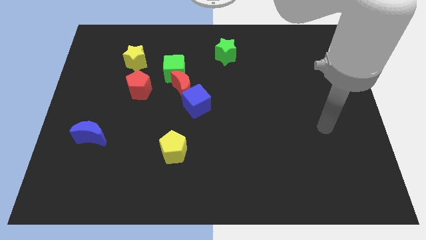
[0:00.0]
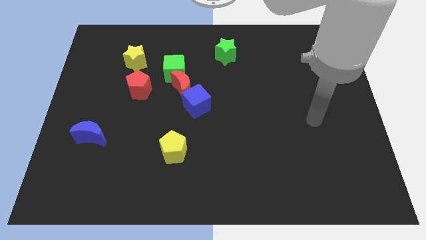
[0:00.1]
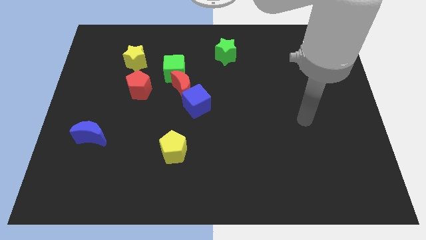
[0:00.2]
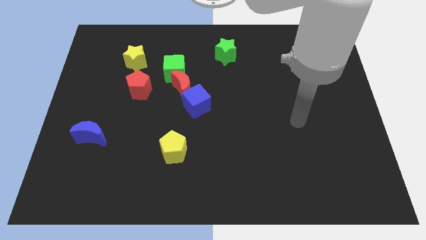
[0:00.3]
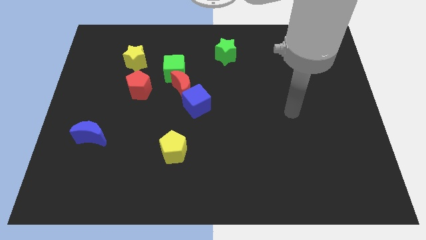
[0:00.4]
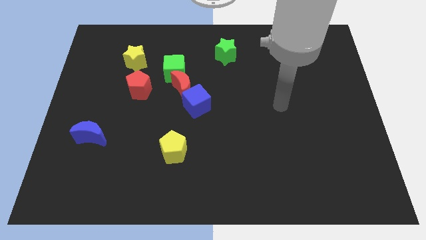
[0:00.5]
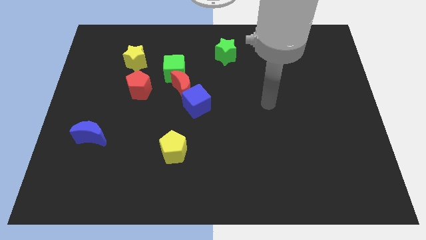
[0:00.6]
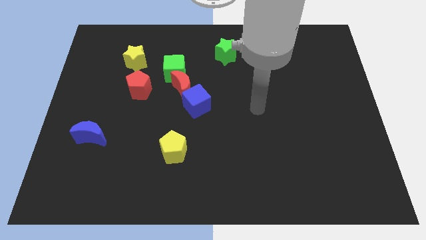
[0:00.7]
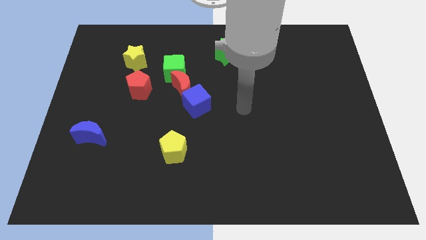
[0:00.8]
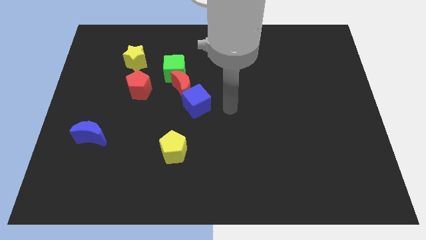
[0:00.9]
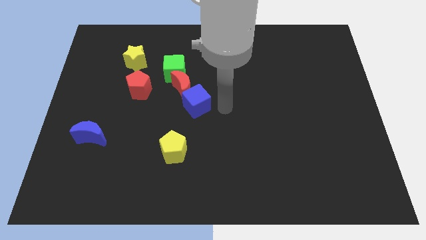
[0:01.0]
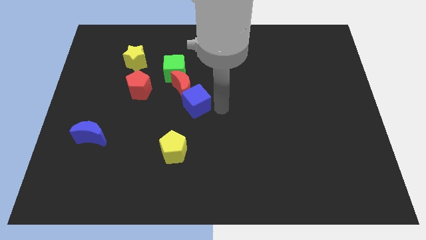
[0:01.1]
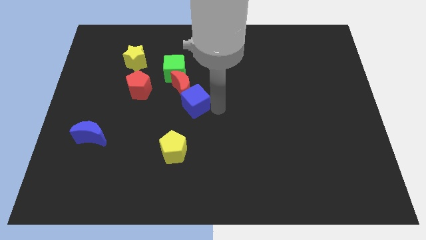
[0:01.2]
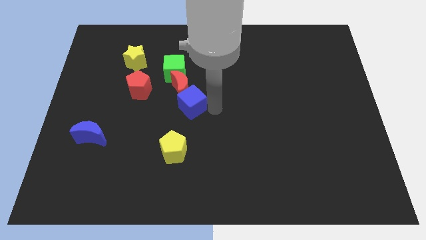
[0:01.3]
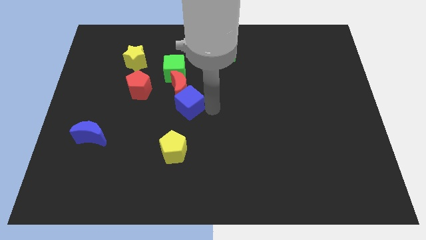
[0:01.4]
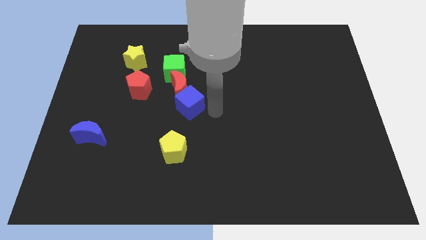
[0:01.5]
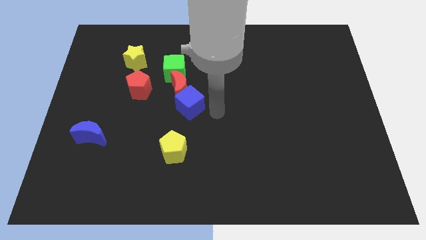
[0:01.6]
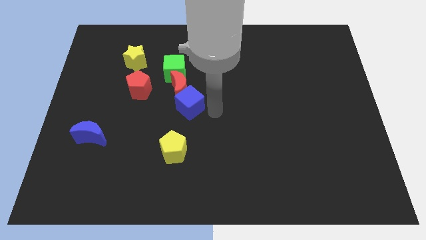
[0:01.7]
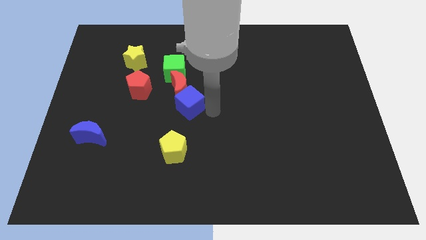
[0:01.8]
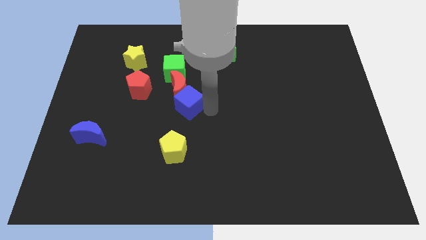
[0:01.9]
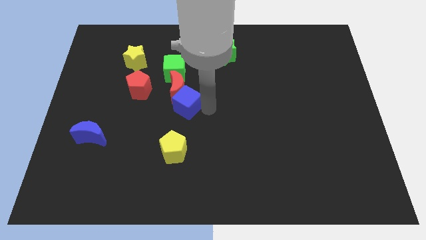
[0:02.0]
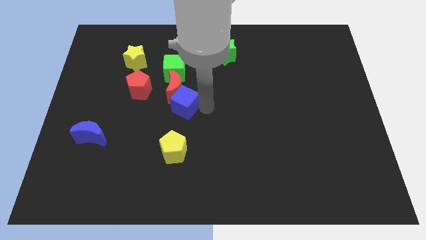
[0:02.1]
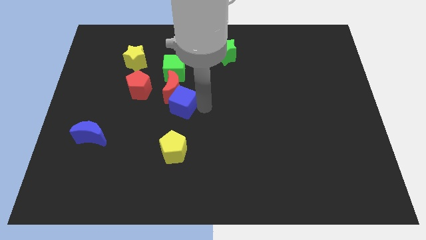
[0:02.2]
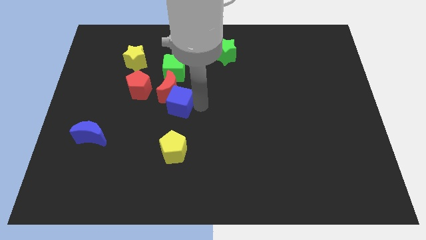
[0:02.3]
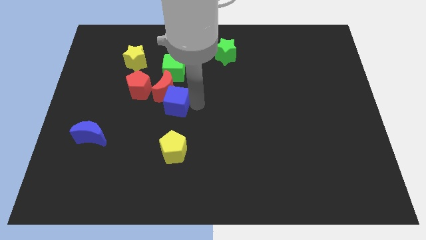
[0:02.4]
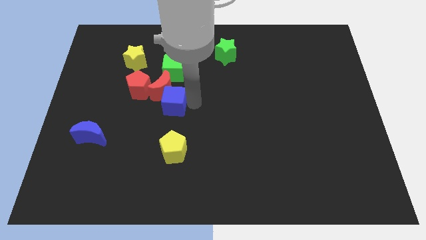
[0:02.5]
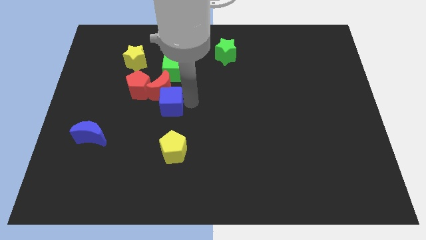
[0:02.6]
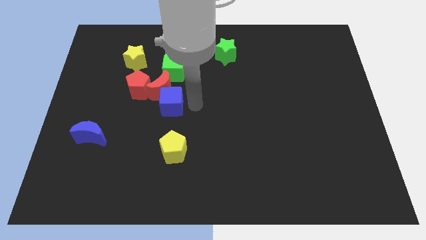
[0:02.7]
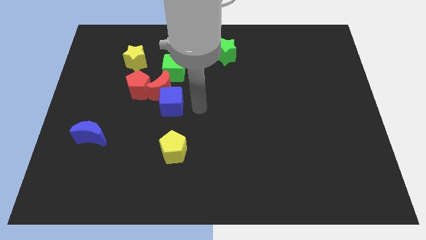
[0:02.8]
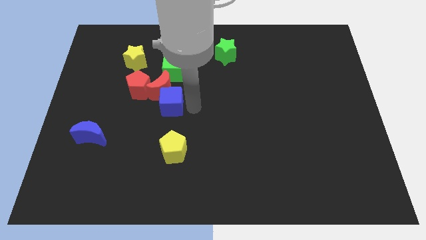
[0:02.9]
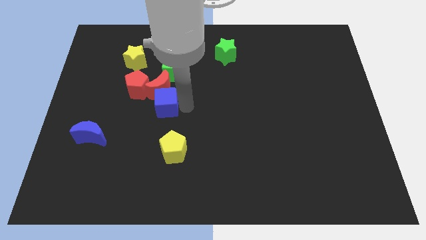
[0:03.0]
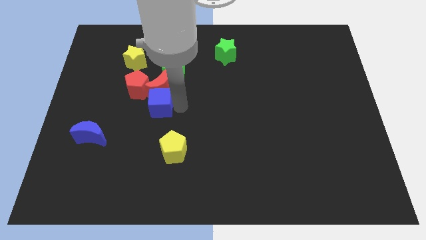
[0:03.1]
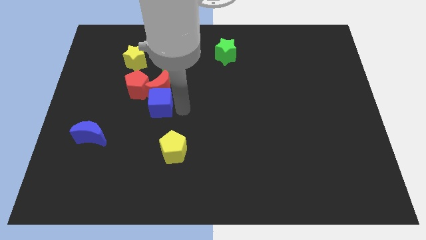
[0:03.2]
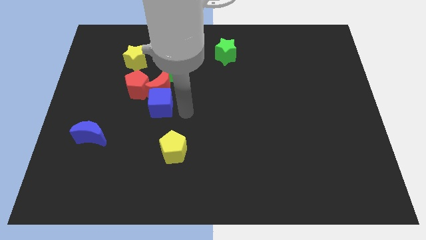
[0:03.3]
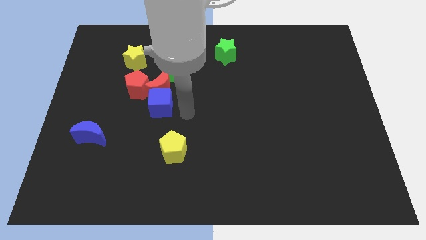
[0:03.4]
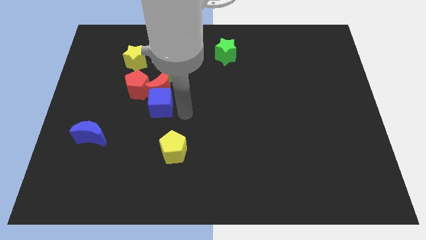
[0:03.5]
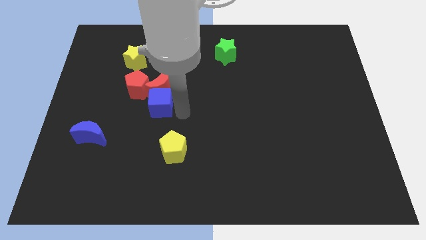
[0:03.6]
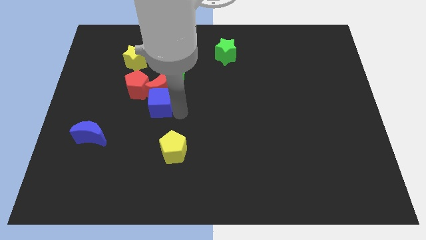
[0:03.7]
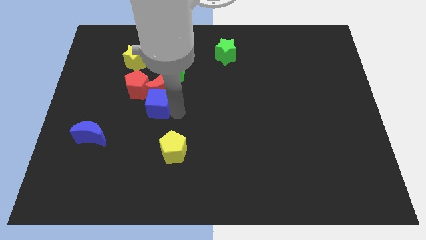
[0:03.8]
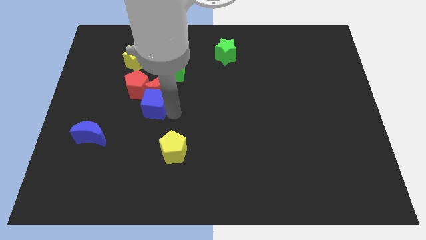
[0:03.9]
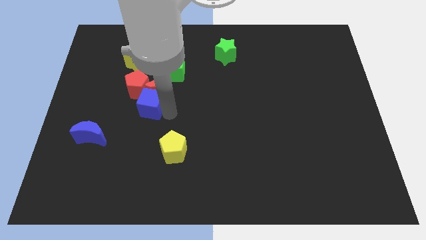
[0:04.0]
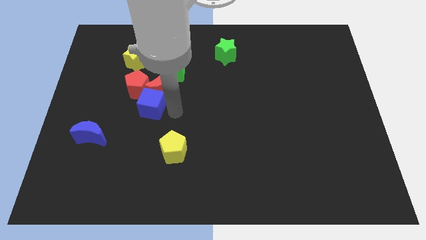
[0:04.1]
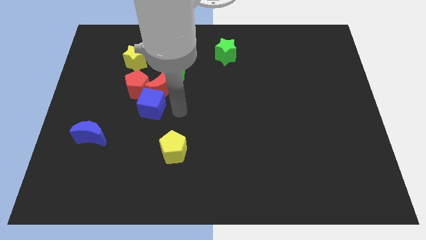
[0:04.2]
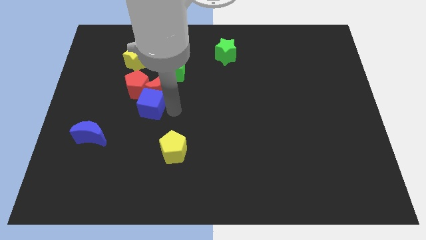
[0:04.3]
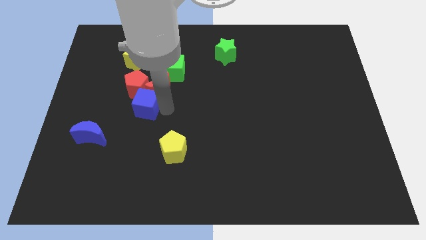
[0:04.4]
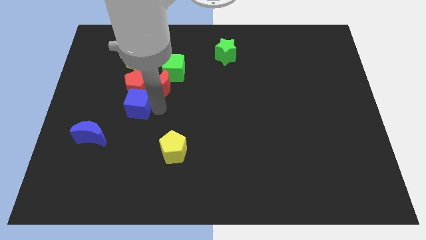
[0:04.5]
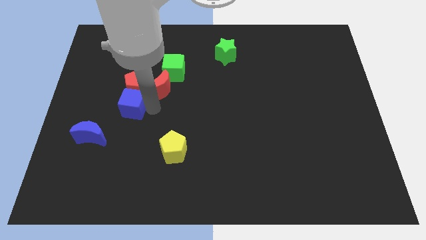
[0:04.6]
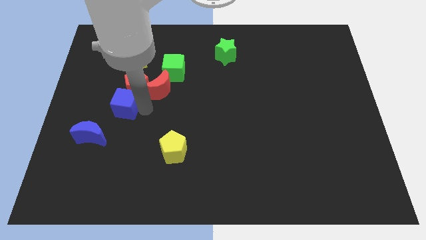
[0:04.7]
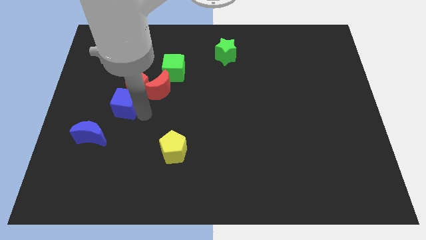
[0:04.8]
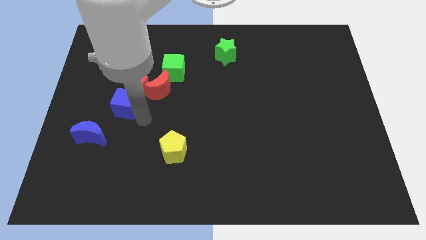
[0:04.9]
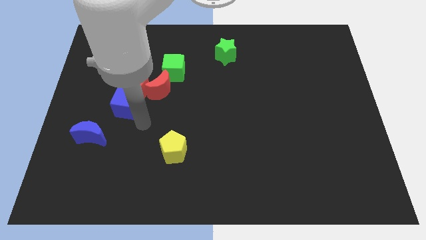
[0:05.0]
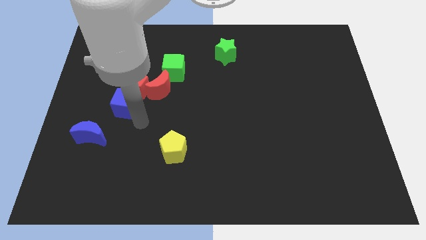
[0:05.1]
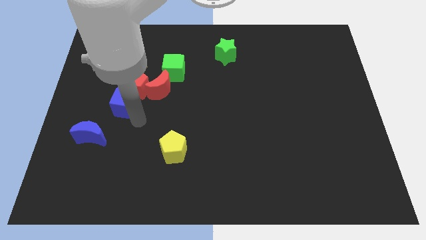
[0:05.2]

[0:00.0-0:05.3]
move the blue cube to the left side of the red moon
